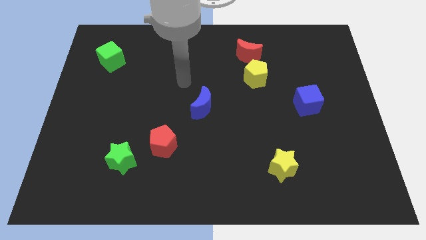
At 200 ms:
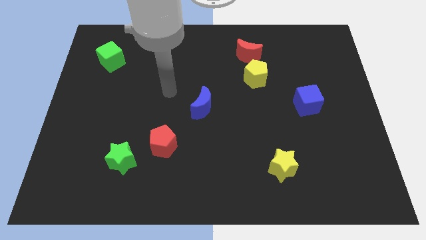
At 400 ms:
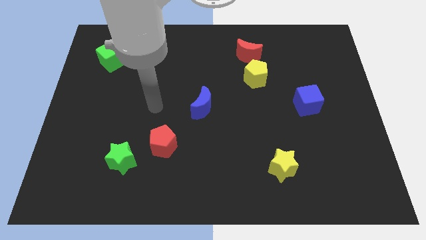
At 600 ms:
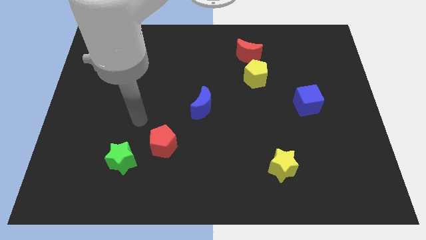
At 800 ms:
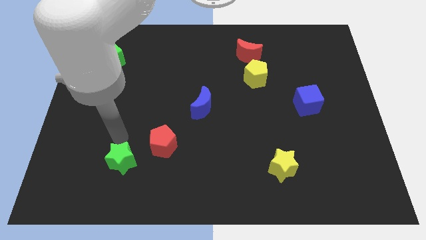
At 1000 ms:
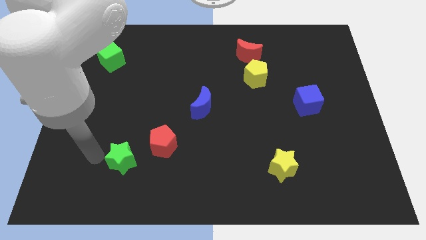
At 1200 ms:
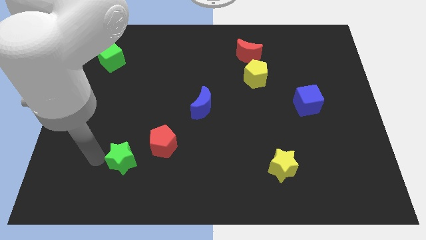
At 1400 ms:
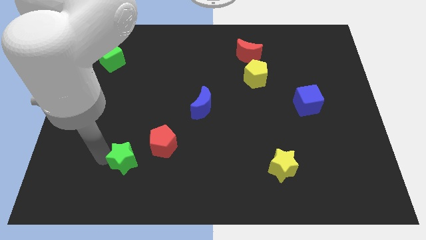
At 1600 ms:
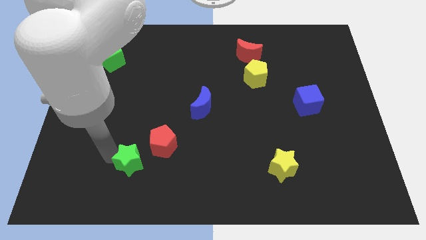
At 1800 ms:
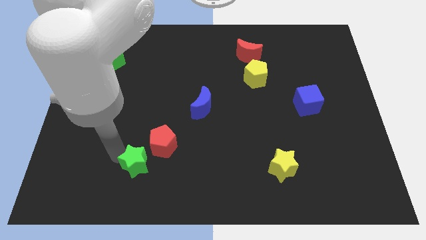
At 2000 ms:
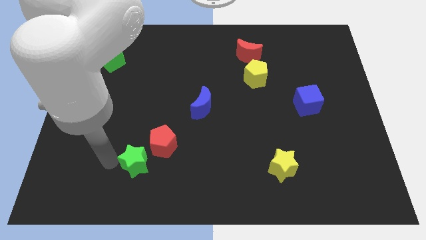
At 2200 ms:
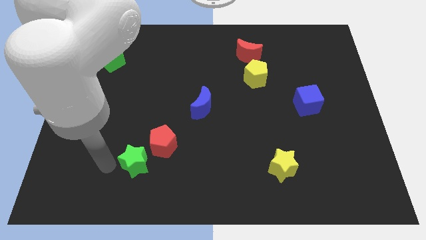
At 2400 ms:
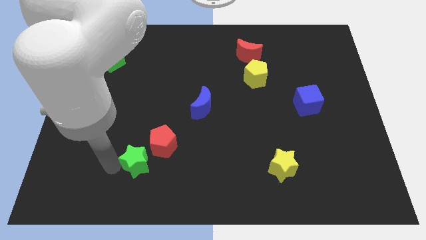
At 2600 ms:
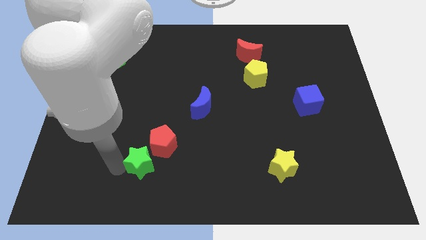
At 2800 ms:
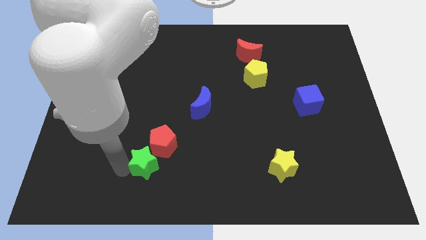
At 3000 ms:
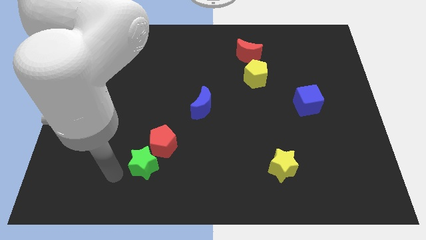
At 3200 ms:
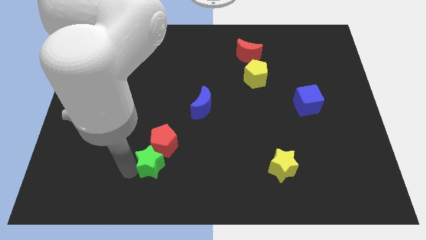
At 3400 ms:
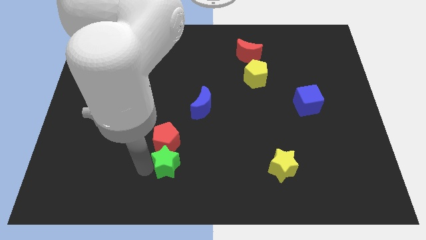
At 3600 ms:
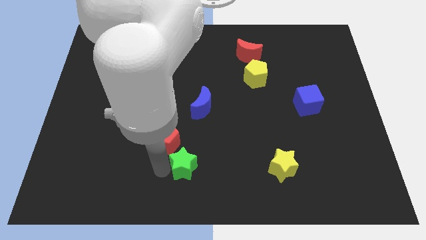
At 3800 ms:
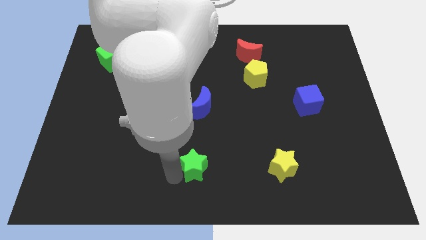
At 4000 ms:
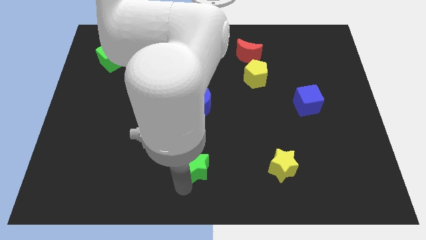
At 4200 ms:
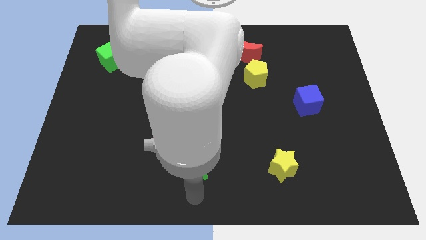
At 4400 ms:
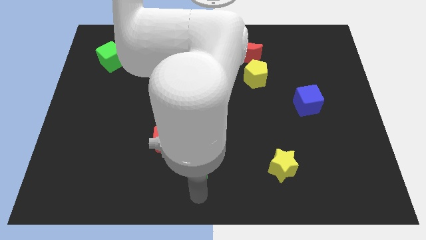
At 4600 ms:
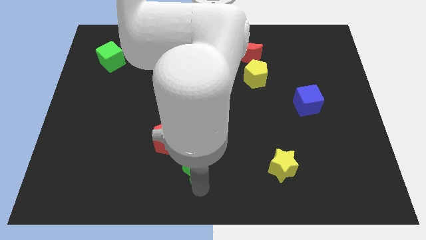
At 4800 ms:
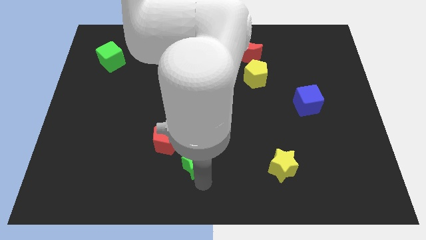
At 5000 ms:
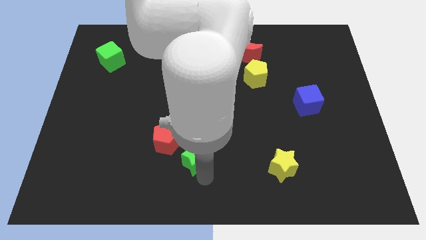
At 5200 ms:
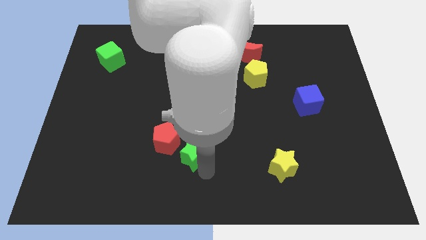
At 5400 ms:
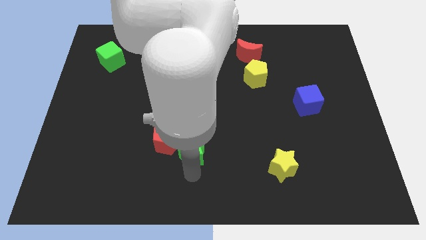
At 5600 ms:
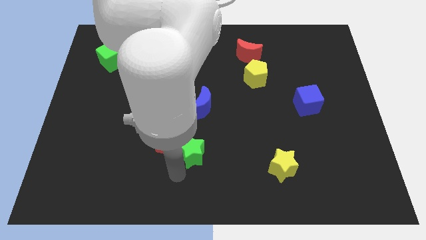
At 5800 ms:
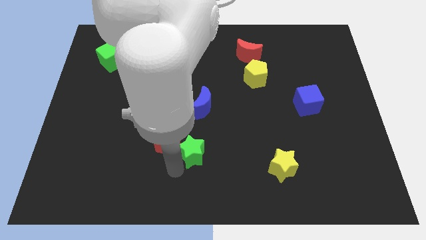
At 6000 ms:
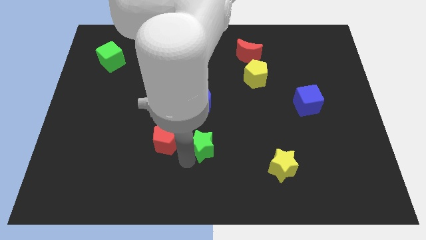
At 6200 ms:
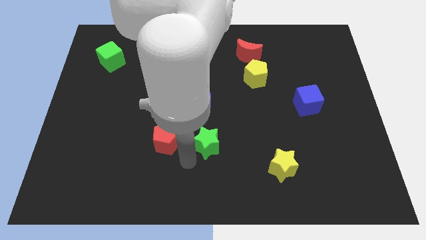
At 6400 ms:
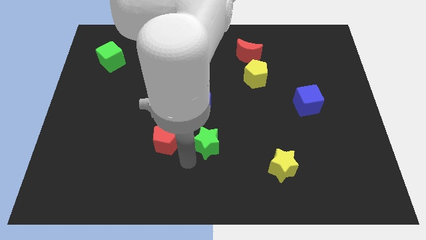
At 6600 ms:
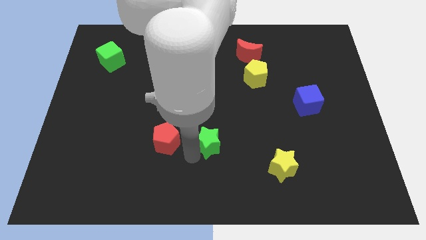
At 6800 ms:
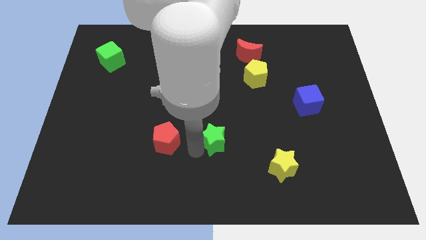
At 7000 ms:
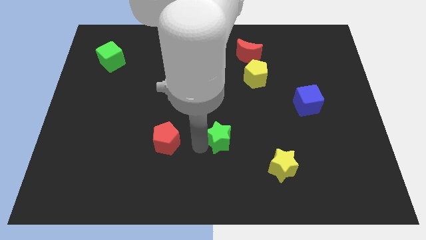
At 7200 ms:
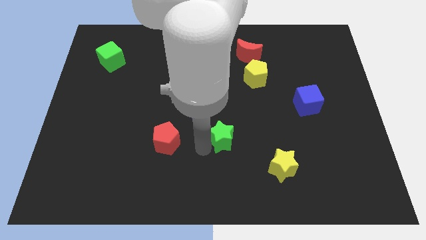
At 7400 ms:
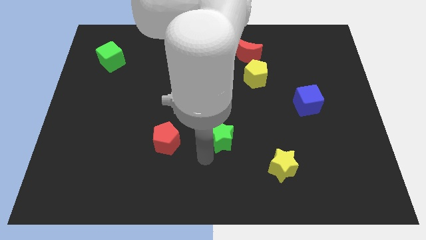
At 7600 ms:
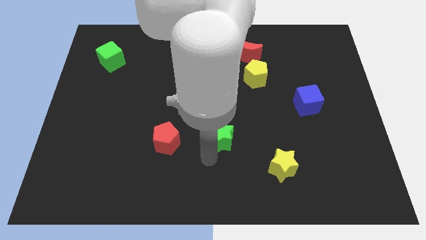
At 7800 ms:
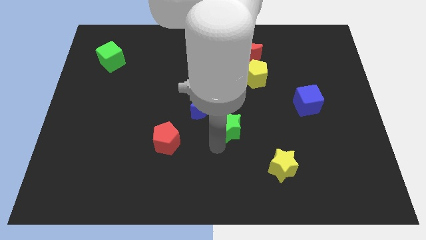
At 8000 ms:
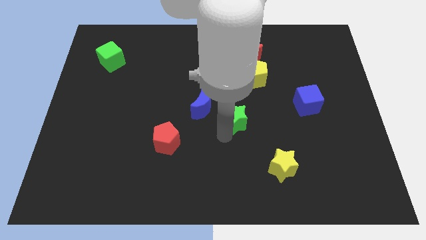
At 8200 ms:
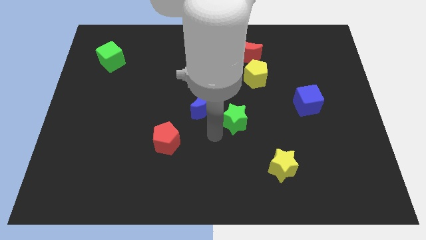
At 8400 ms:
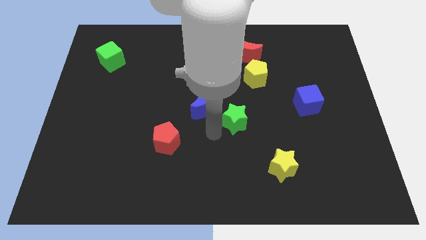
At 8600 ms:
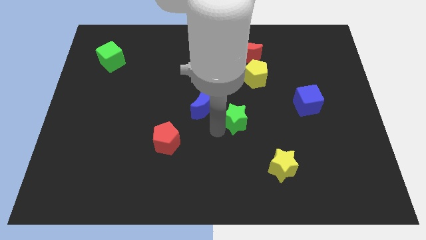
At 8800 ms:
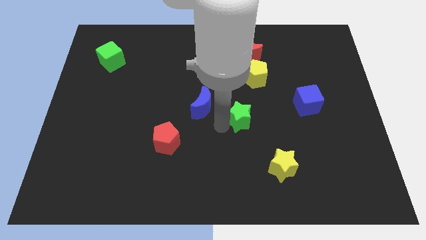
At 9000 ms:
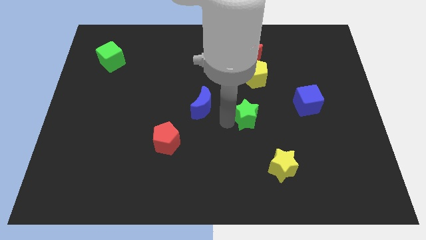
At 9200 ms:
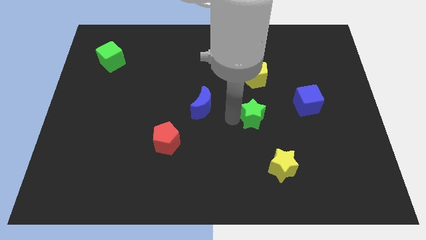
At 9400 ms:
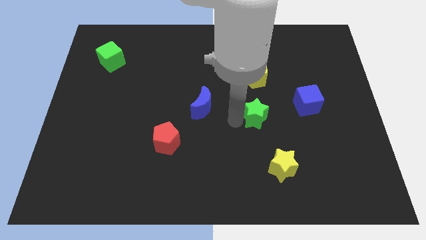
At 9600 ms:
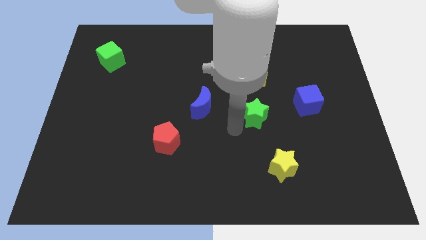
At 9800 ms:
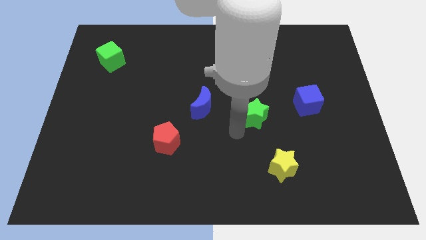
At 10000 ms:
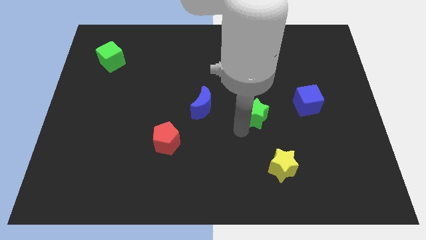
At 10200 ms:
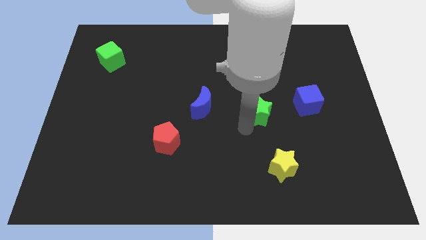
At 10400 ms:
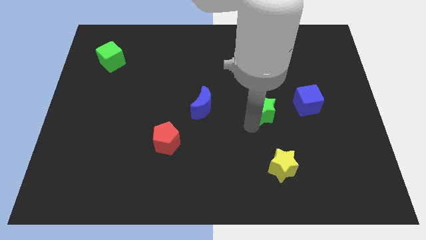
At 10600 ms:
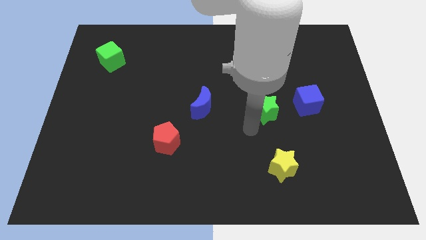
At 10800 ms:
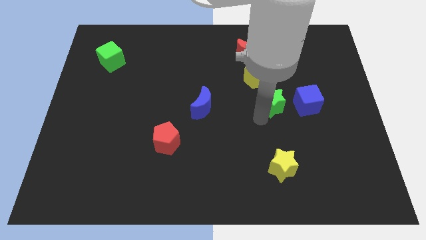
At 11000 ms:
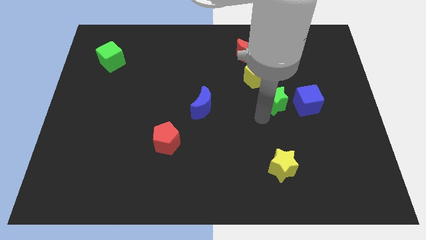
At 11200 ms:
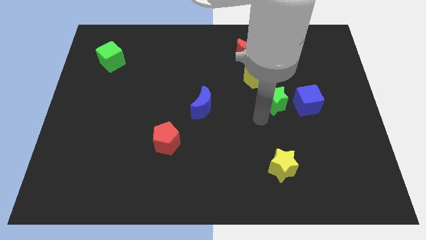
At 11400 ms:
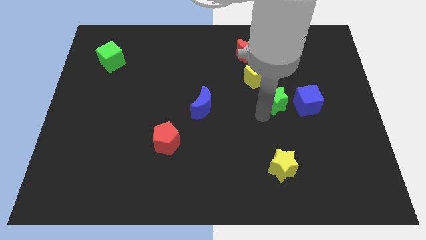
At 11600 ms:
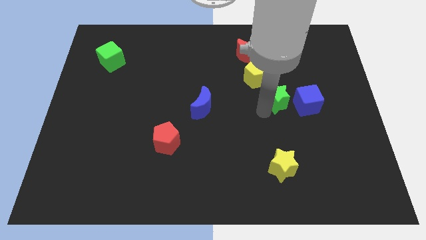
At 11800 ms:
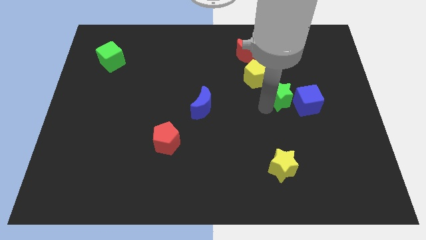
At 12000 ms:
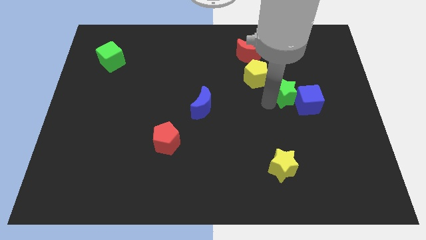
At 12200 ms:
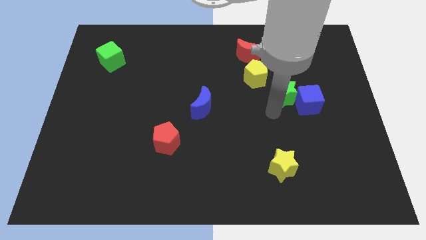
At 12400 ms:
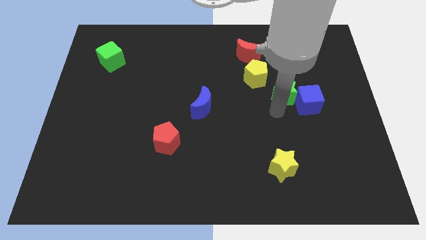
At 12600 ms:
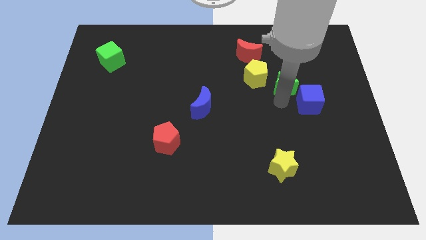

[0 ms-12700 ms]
push the green star above the blue cube

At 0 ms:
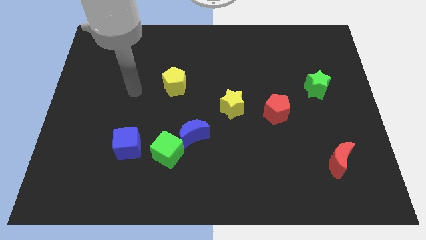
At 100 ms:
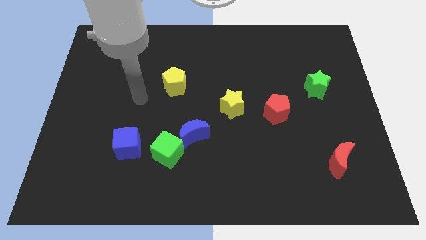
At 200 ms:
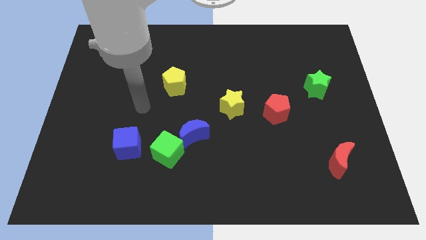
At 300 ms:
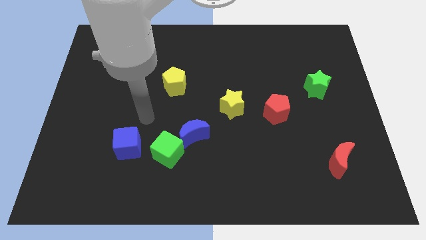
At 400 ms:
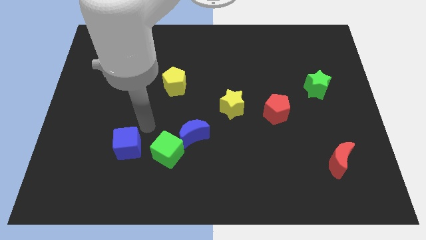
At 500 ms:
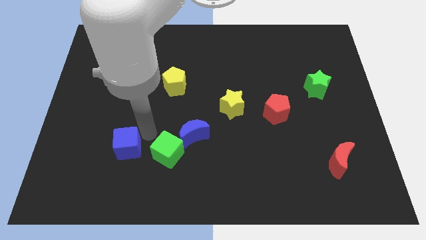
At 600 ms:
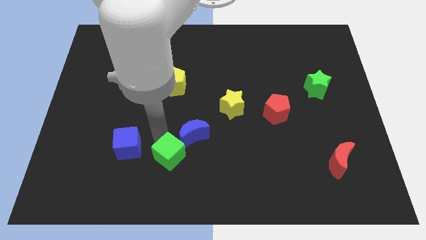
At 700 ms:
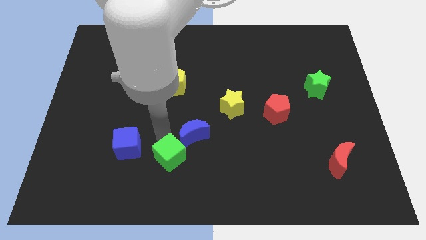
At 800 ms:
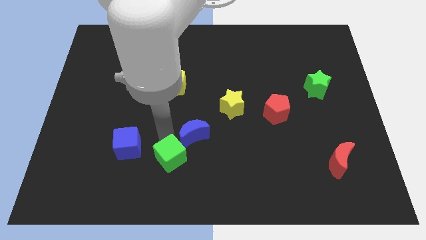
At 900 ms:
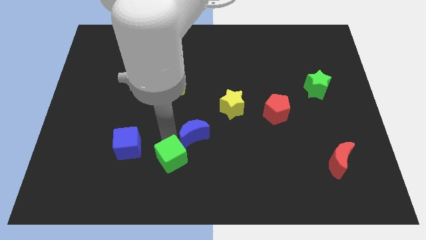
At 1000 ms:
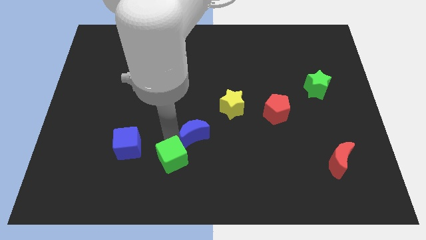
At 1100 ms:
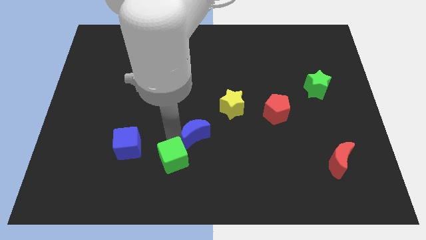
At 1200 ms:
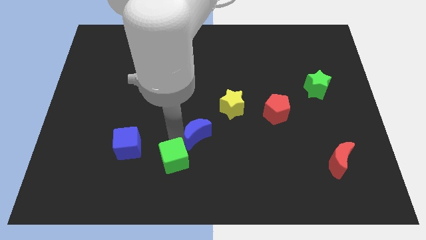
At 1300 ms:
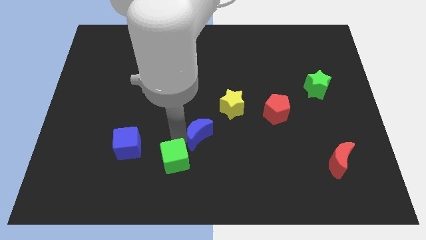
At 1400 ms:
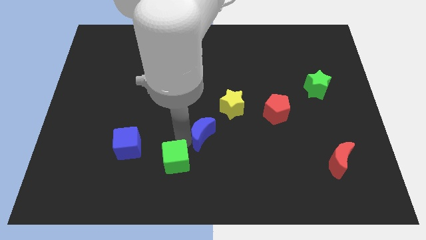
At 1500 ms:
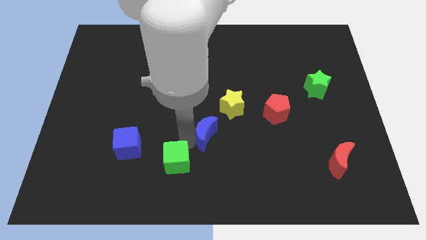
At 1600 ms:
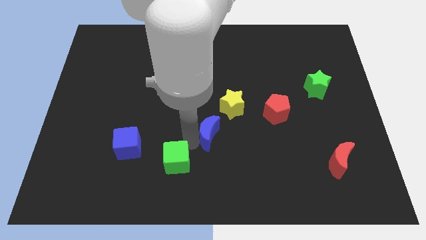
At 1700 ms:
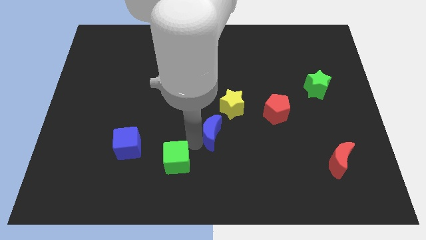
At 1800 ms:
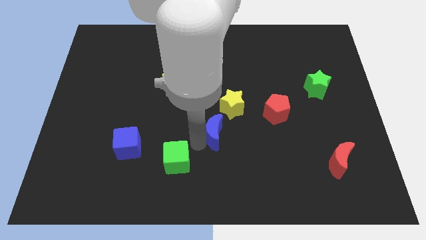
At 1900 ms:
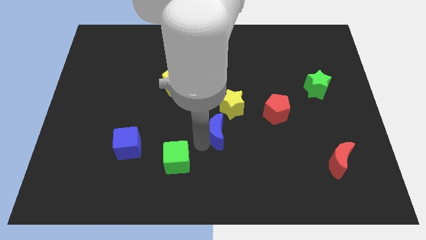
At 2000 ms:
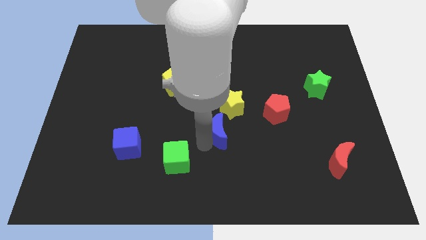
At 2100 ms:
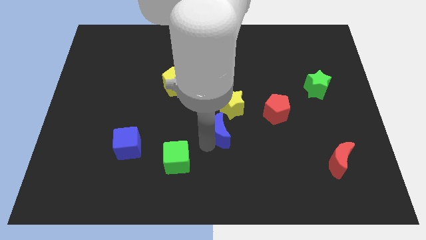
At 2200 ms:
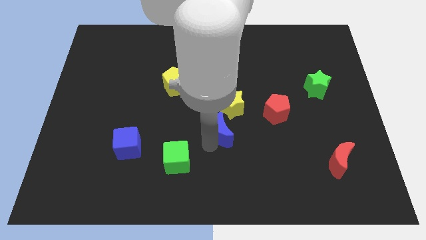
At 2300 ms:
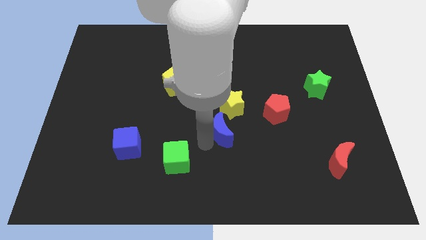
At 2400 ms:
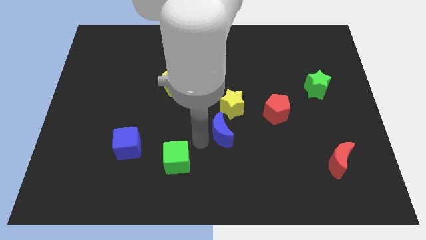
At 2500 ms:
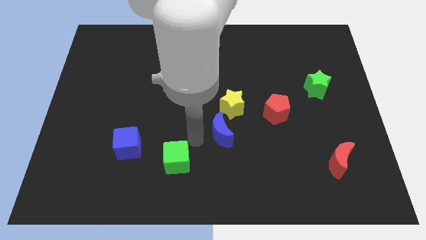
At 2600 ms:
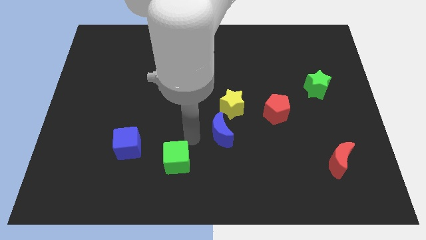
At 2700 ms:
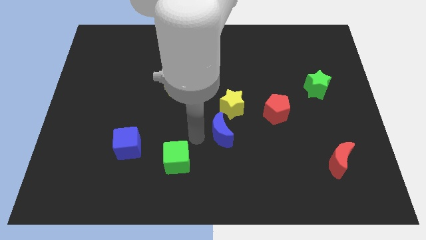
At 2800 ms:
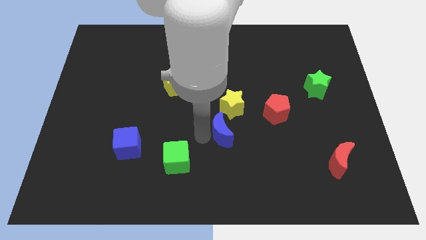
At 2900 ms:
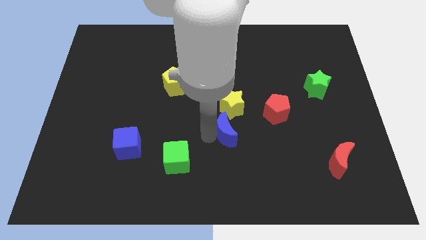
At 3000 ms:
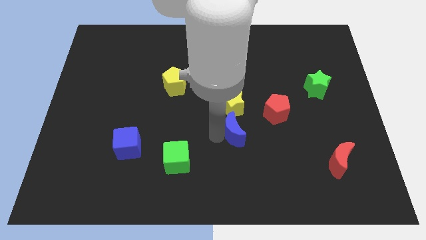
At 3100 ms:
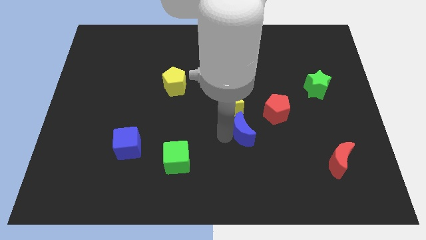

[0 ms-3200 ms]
slide the blue moon diagonally down and to the right of the yellow star
